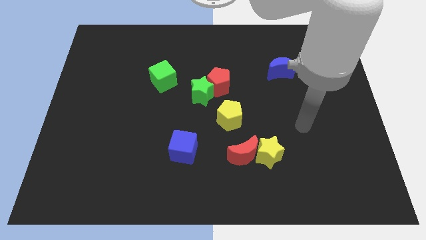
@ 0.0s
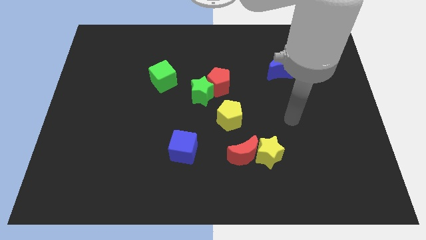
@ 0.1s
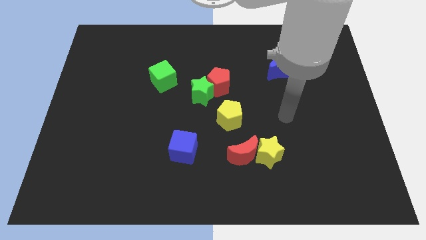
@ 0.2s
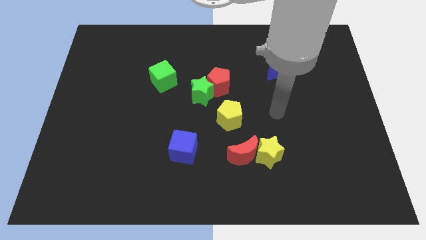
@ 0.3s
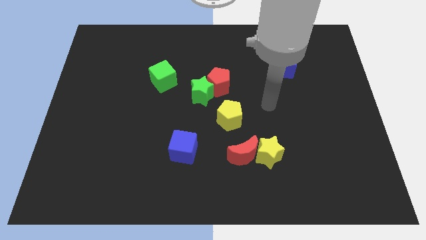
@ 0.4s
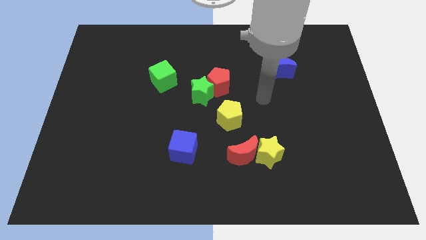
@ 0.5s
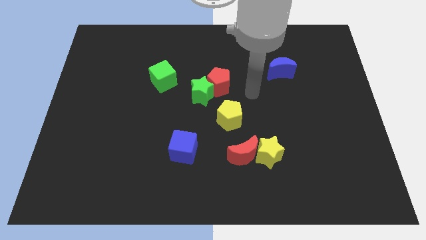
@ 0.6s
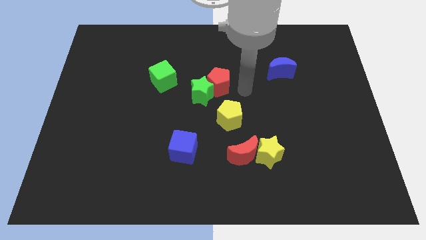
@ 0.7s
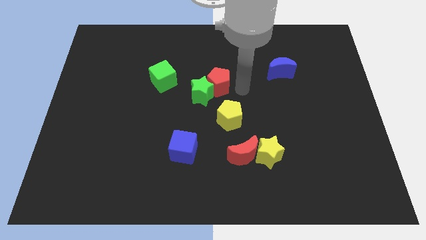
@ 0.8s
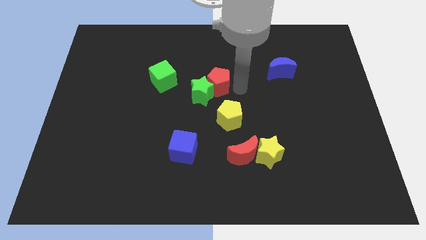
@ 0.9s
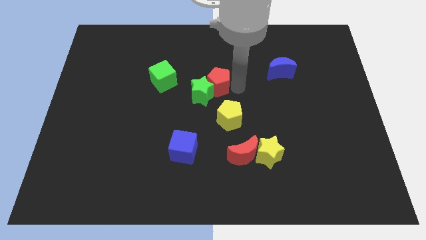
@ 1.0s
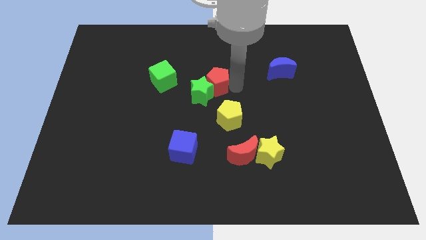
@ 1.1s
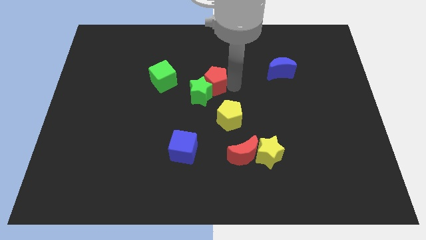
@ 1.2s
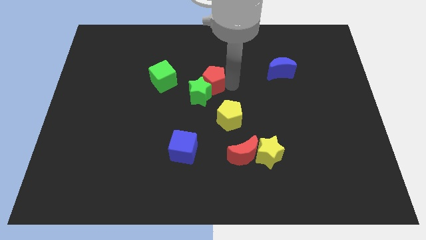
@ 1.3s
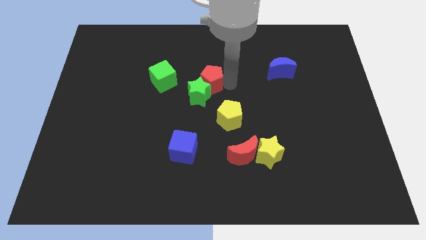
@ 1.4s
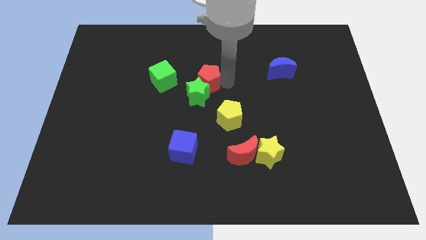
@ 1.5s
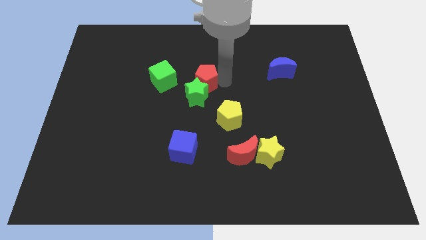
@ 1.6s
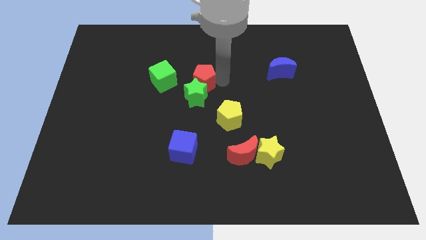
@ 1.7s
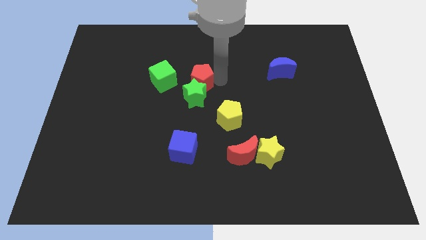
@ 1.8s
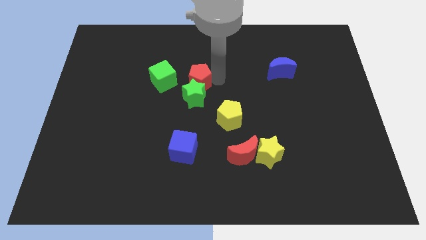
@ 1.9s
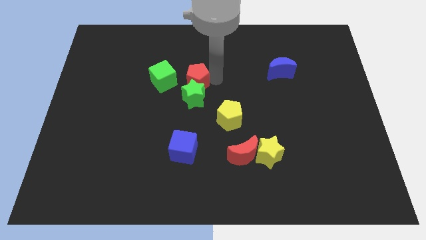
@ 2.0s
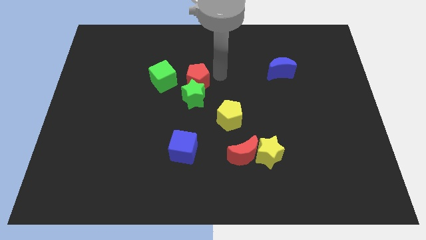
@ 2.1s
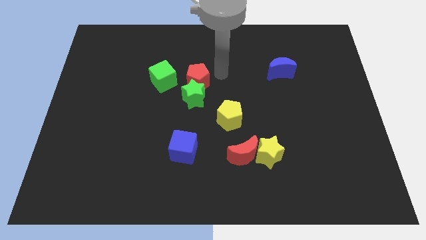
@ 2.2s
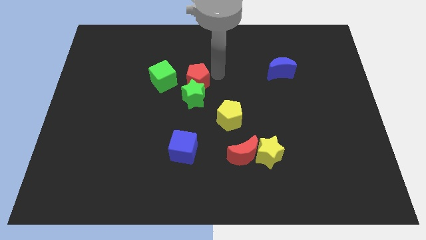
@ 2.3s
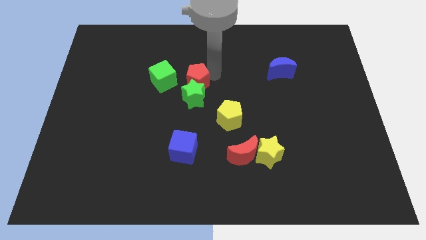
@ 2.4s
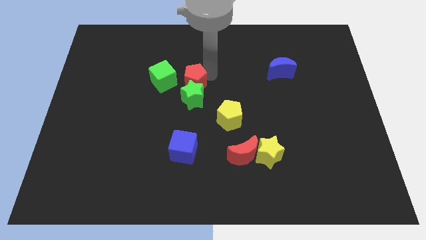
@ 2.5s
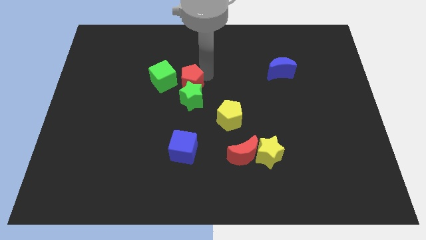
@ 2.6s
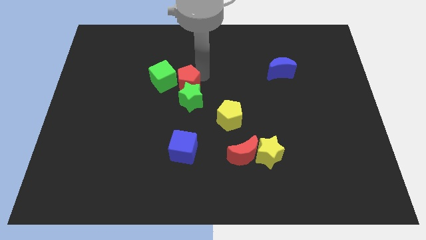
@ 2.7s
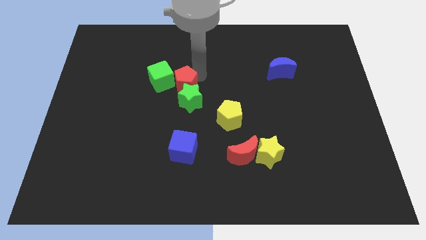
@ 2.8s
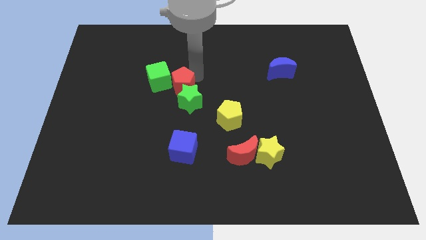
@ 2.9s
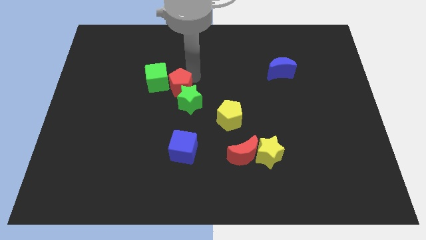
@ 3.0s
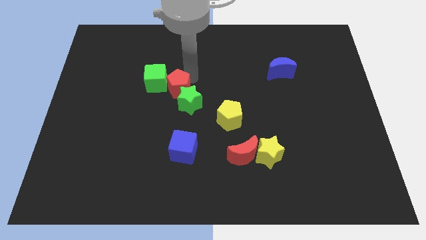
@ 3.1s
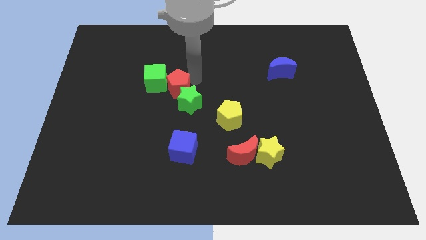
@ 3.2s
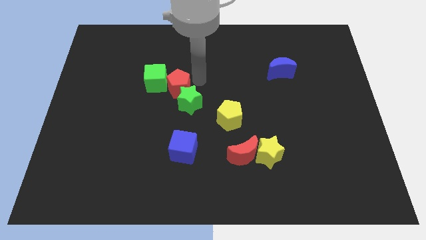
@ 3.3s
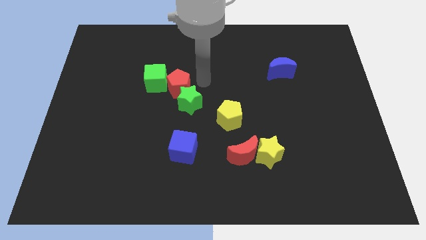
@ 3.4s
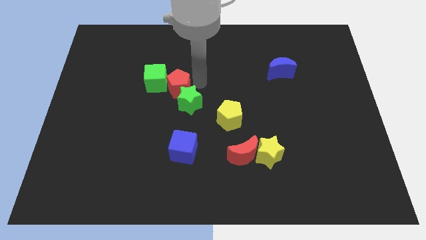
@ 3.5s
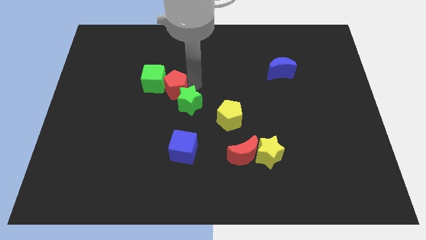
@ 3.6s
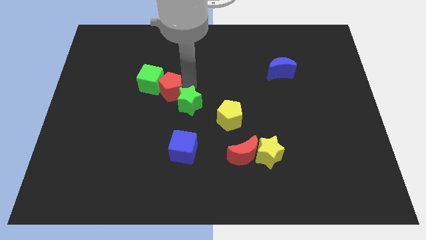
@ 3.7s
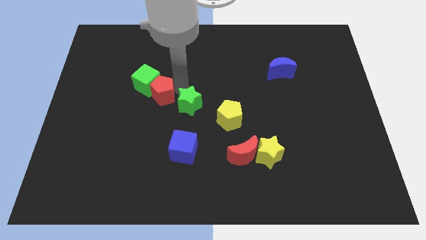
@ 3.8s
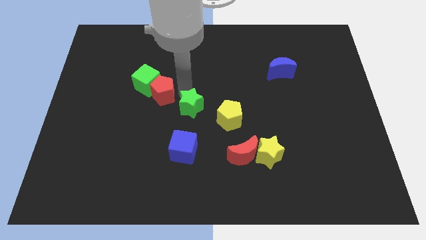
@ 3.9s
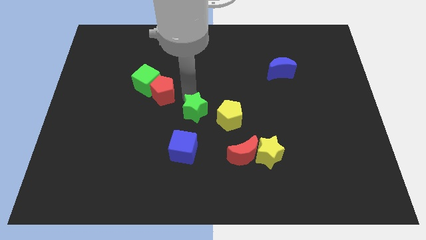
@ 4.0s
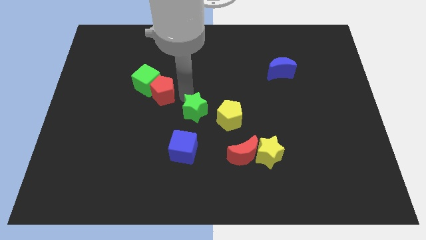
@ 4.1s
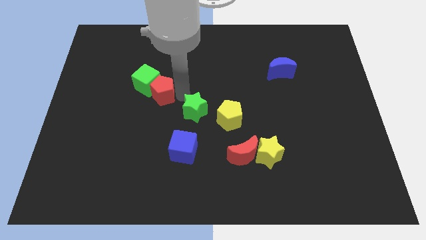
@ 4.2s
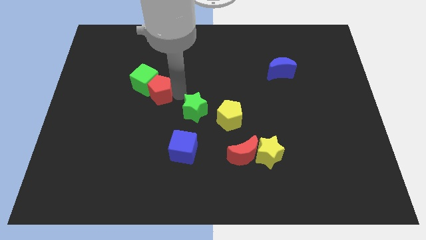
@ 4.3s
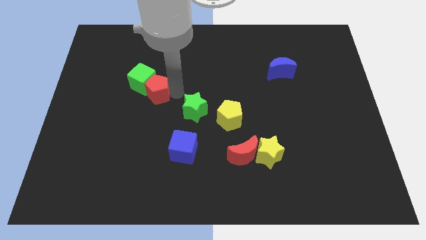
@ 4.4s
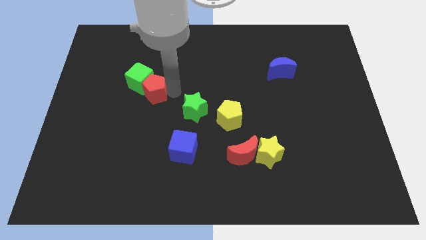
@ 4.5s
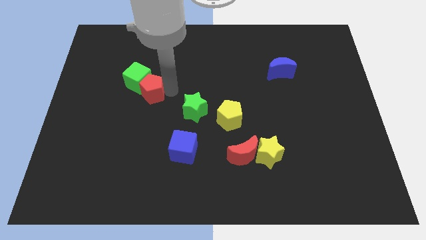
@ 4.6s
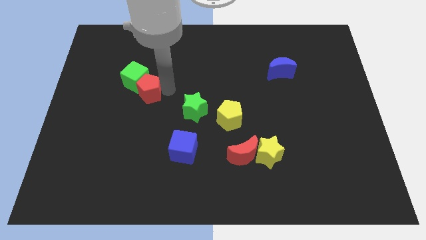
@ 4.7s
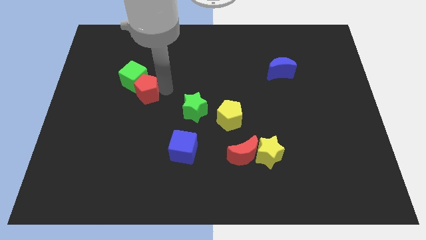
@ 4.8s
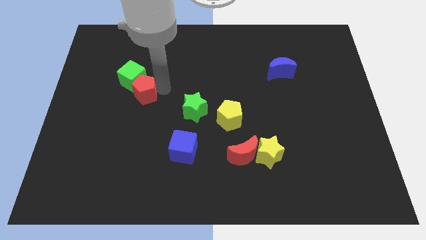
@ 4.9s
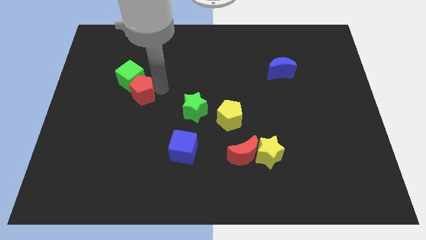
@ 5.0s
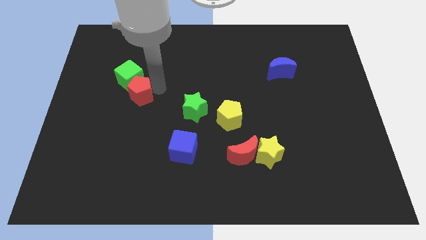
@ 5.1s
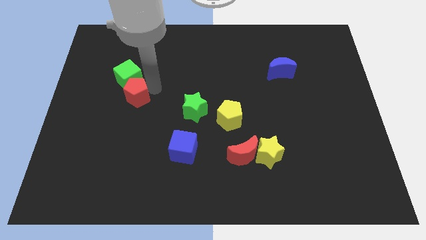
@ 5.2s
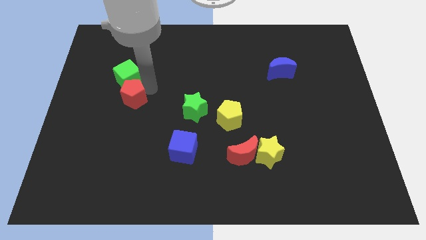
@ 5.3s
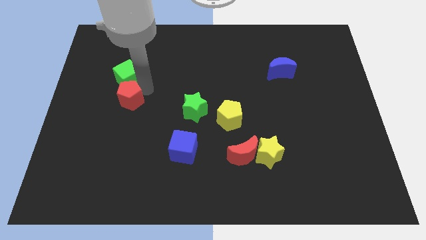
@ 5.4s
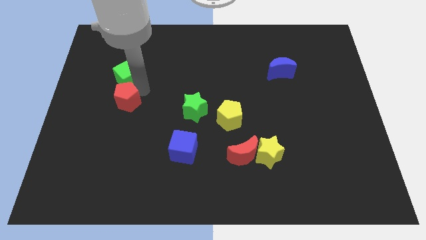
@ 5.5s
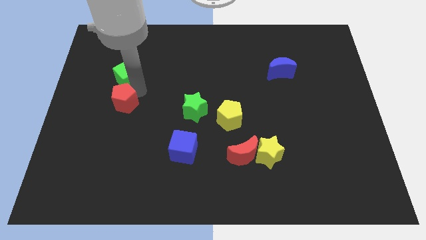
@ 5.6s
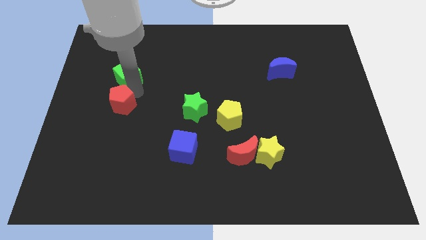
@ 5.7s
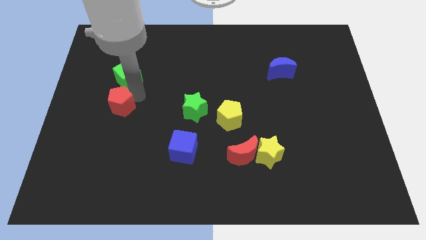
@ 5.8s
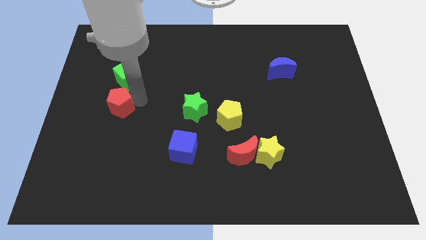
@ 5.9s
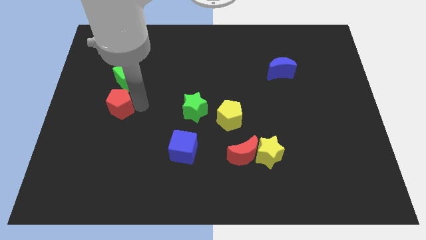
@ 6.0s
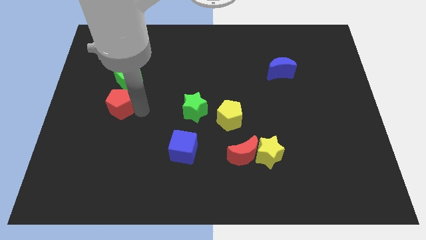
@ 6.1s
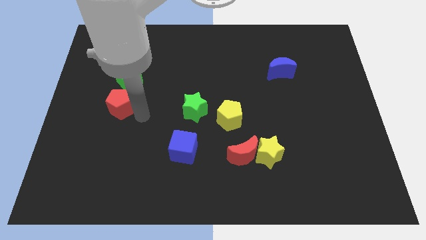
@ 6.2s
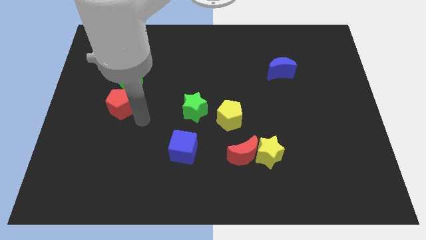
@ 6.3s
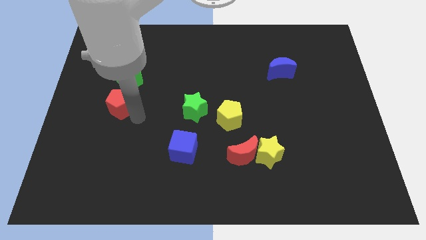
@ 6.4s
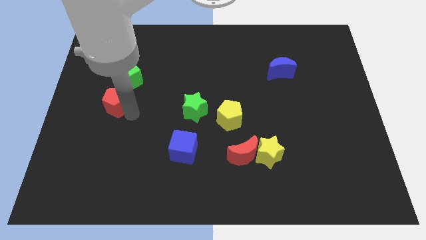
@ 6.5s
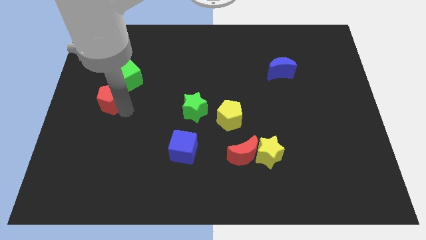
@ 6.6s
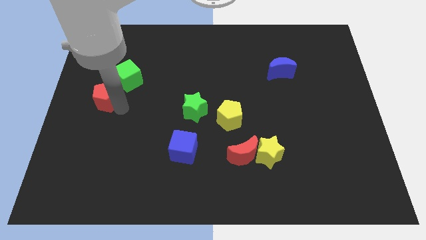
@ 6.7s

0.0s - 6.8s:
push the red pentagon to the left side of the board
